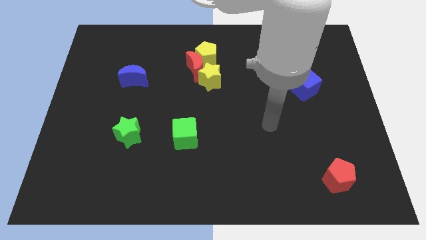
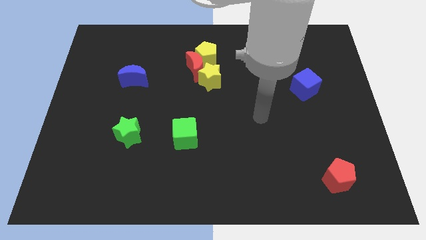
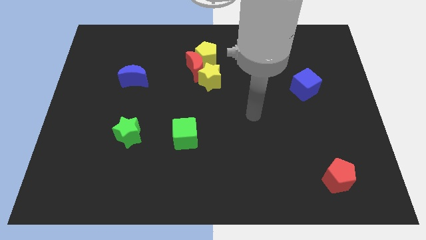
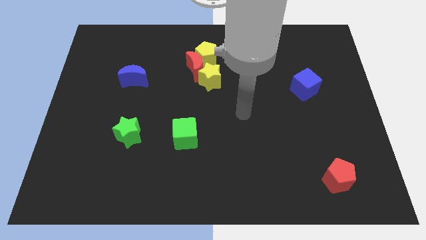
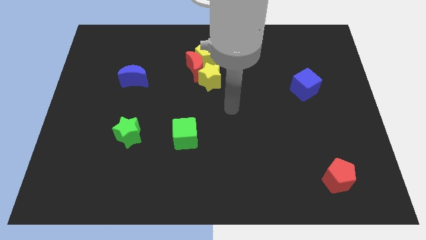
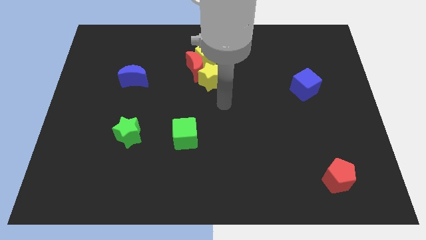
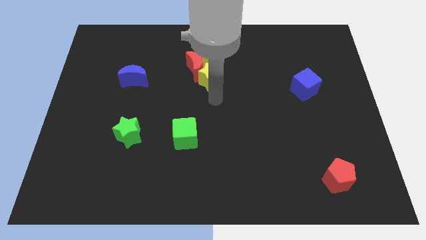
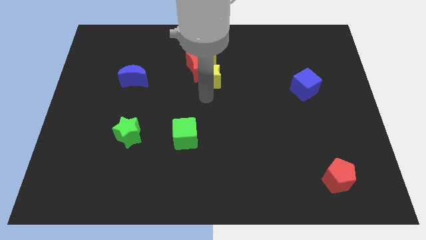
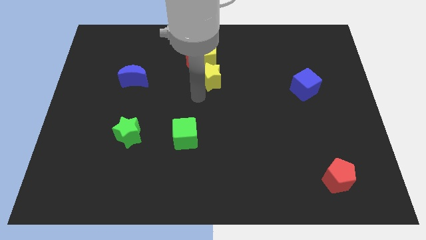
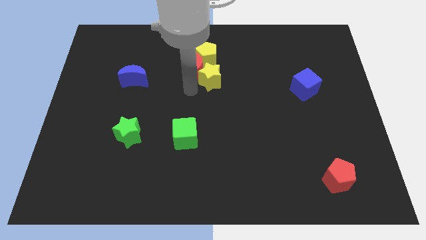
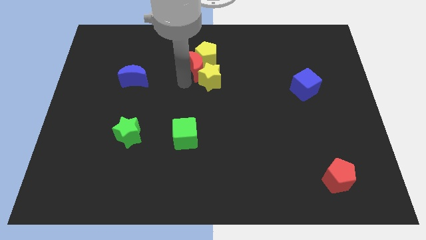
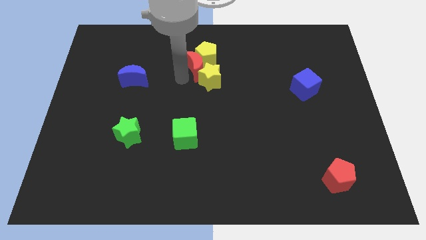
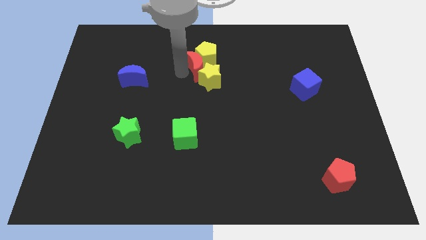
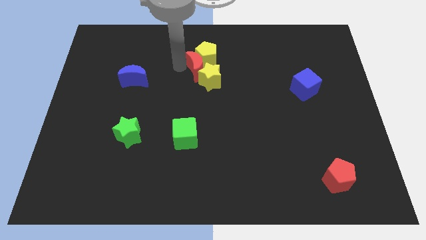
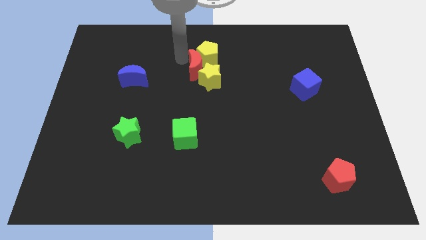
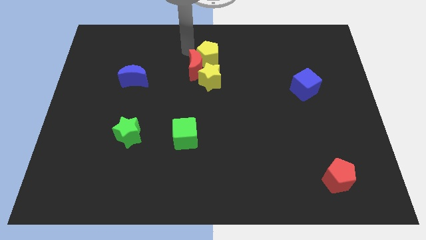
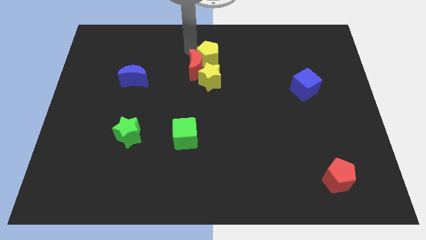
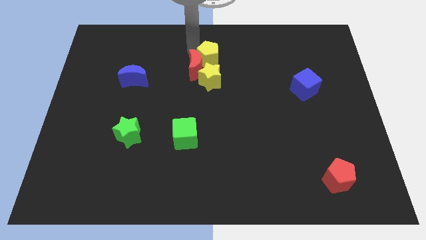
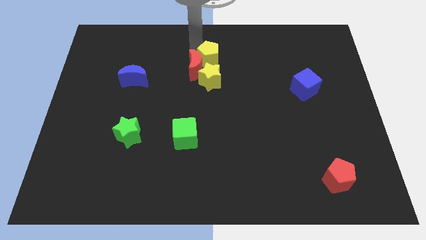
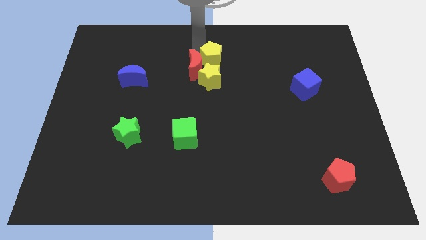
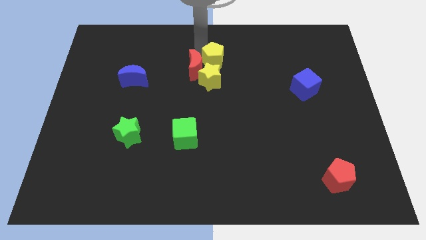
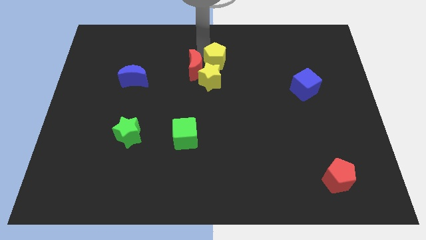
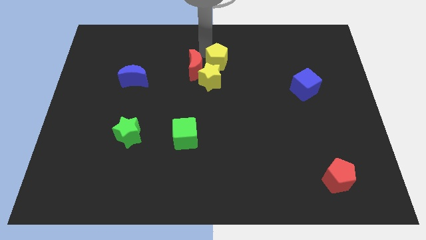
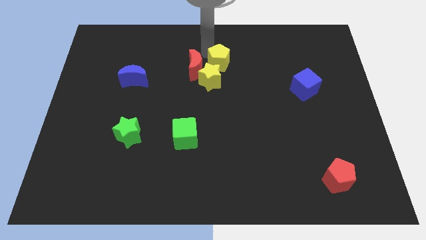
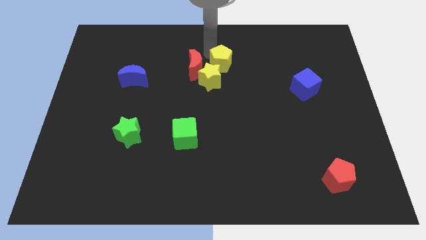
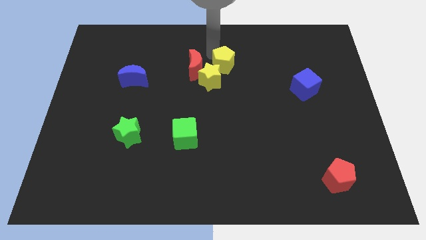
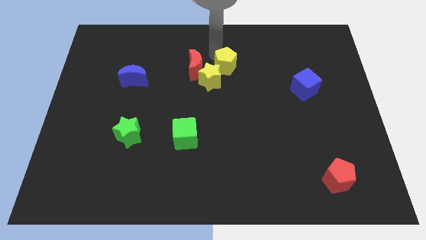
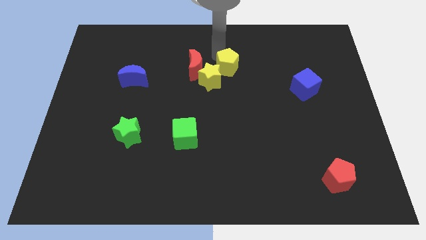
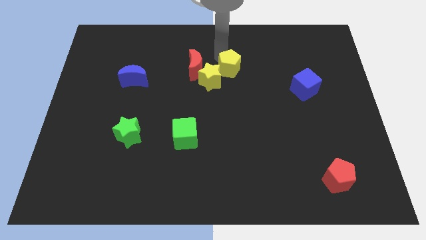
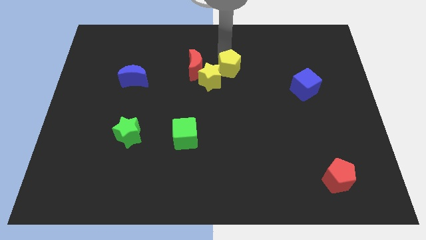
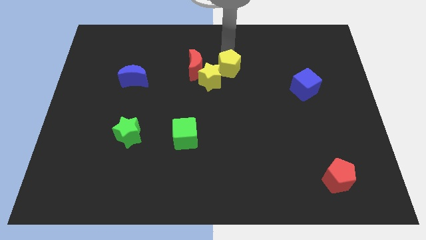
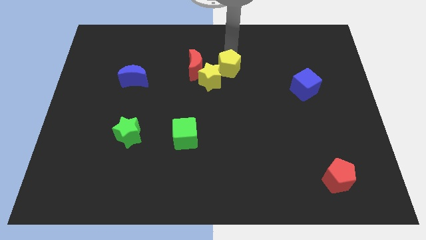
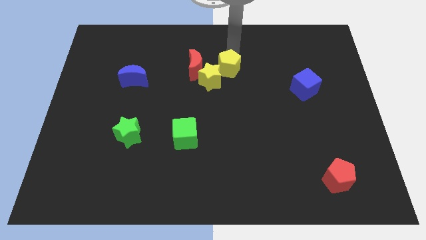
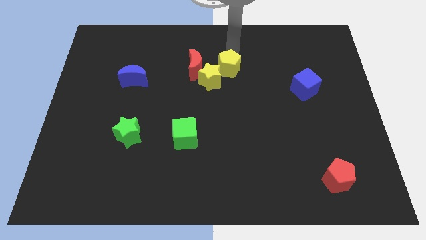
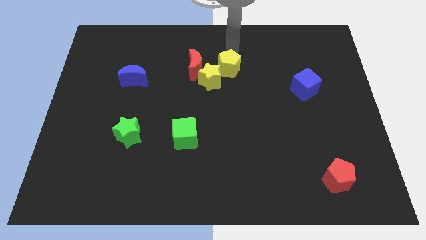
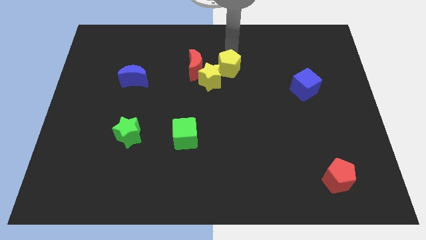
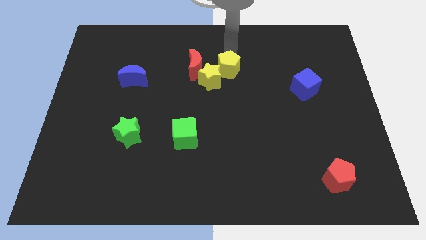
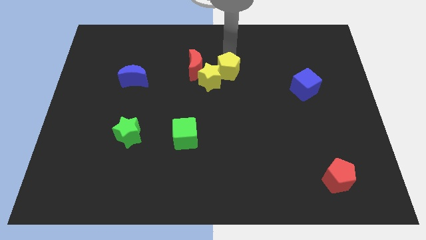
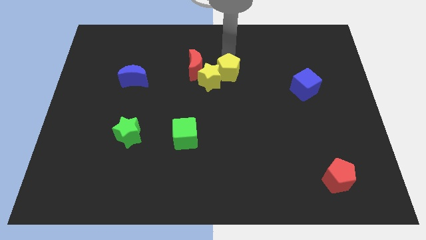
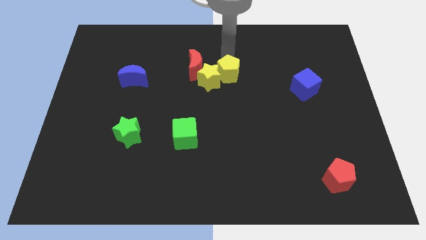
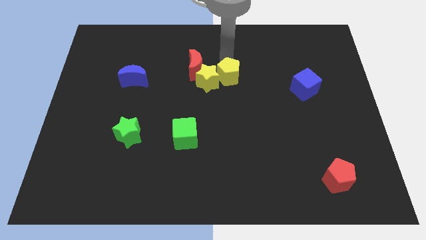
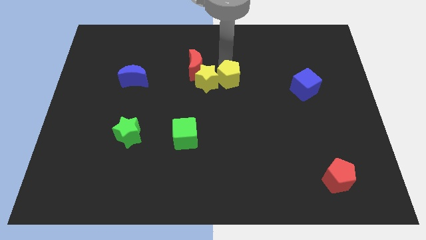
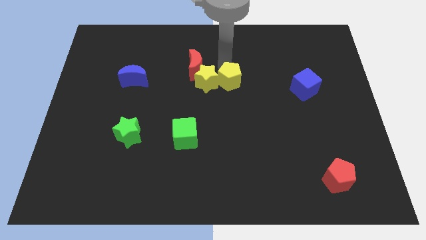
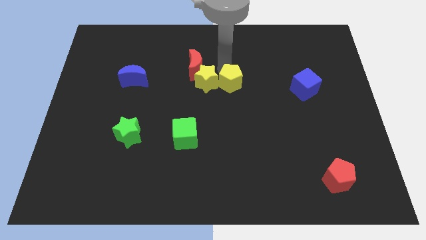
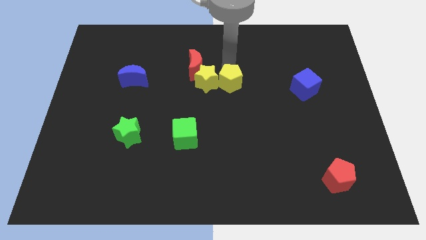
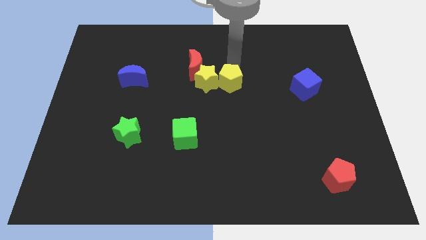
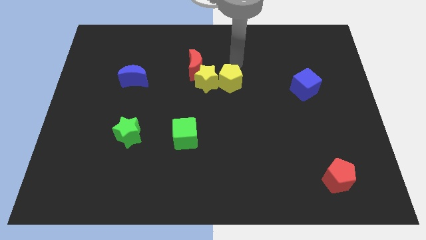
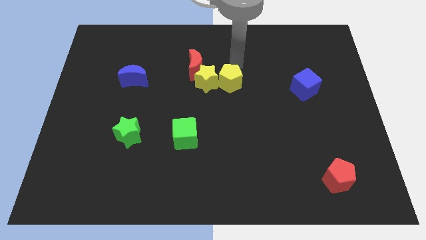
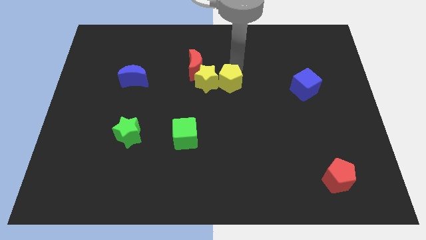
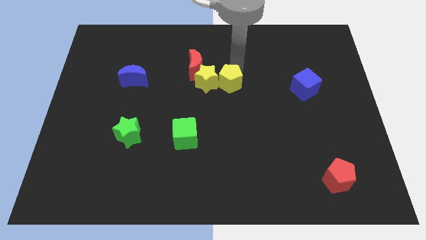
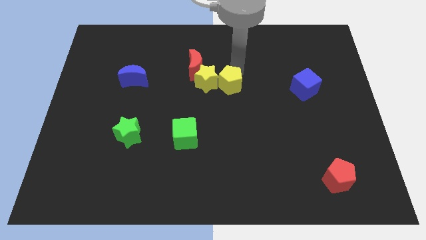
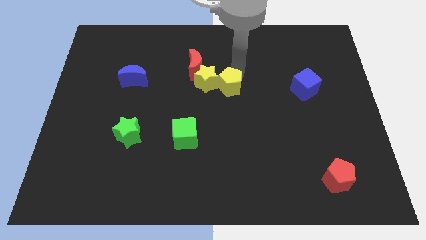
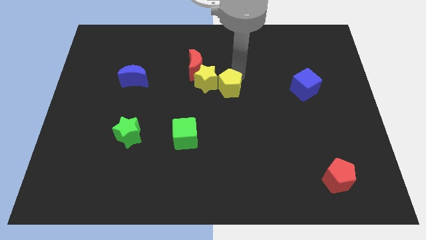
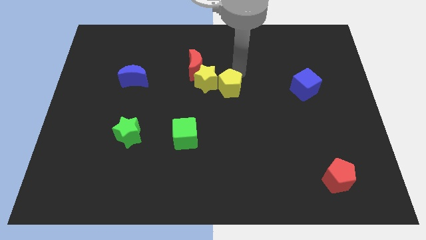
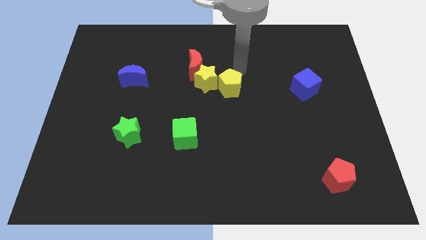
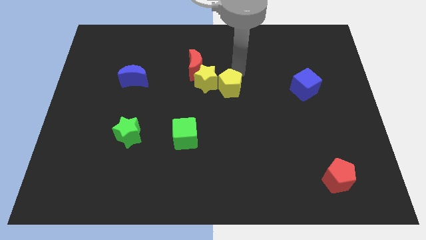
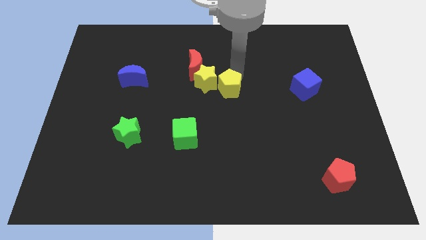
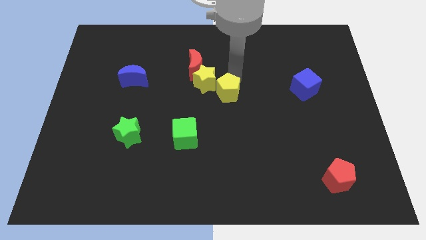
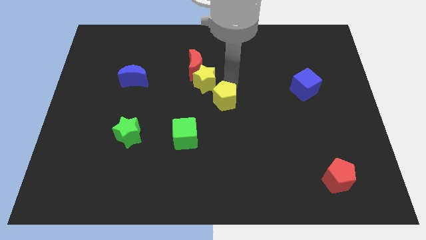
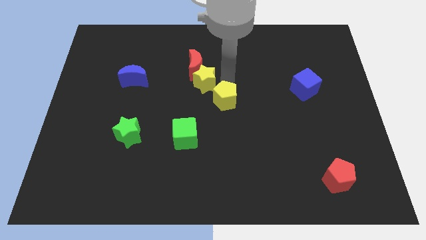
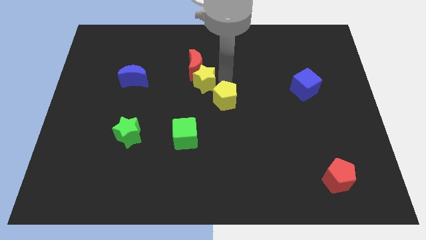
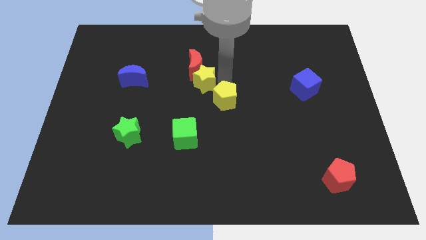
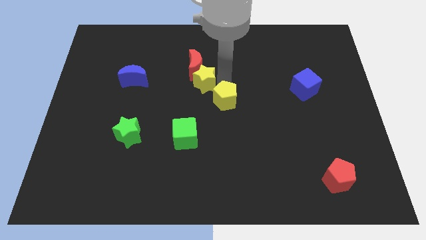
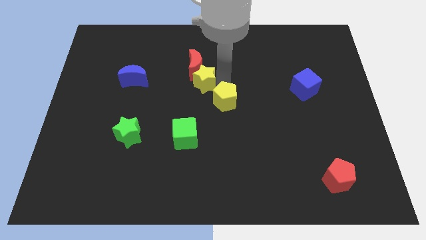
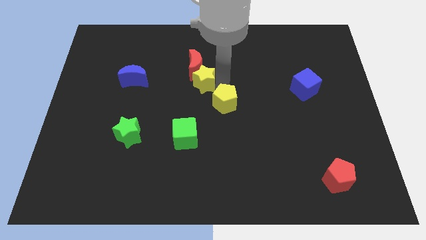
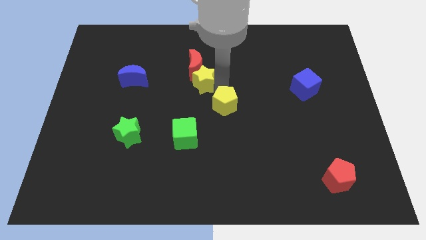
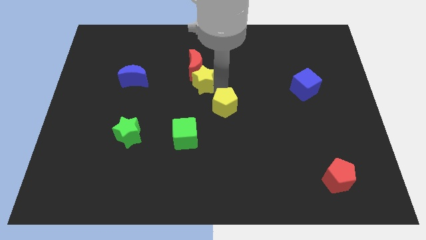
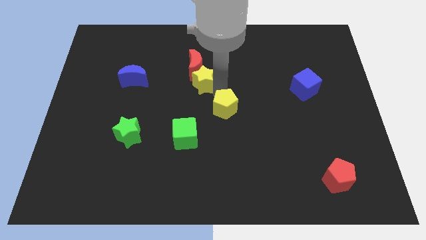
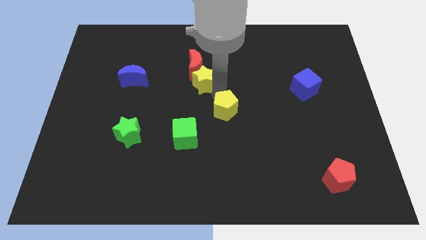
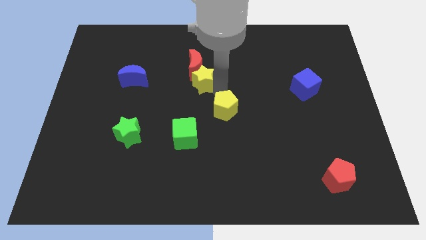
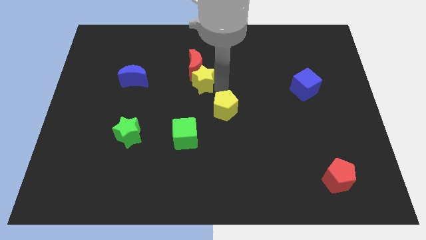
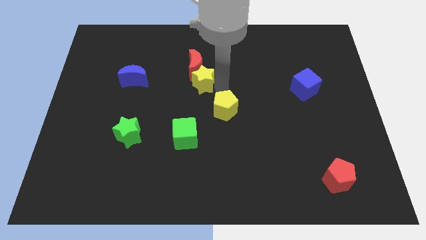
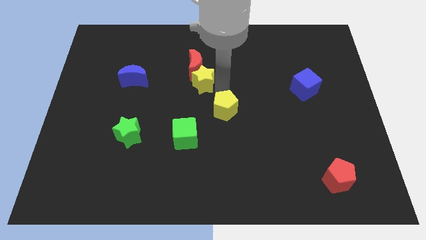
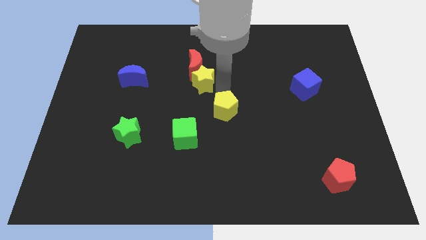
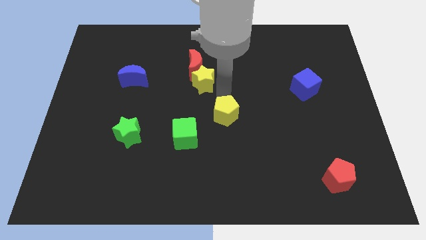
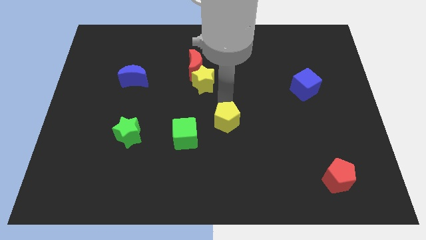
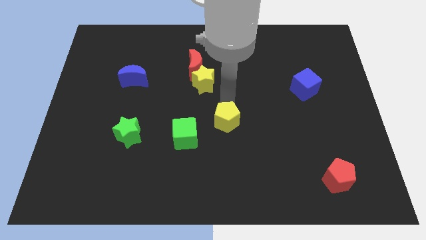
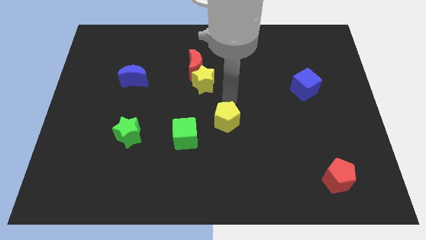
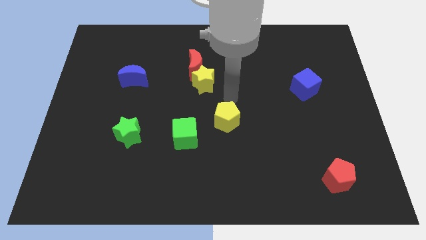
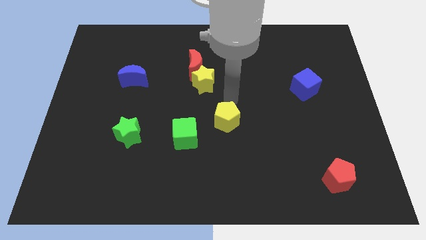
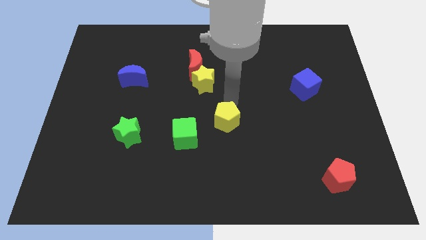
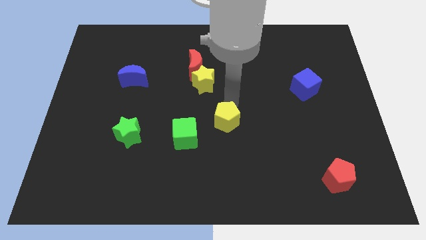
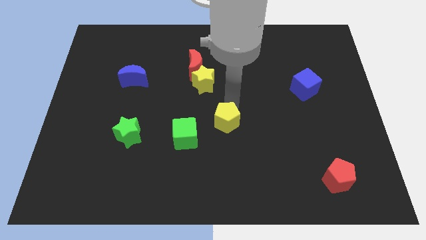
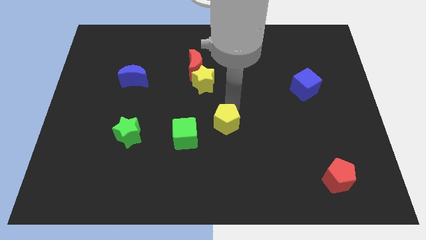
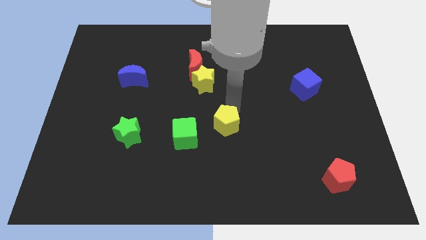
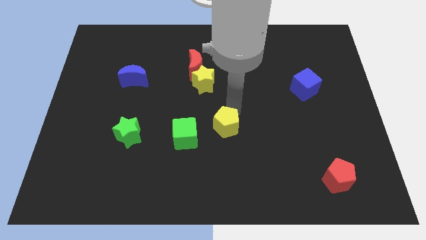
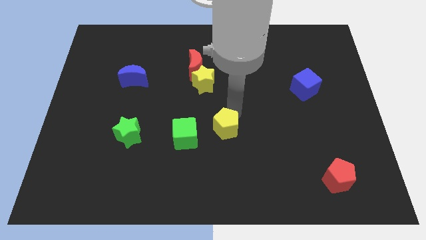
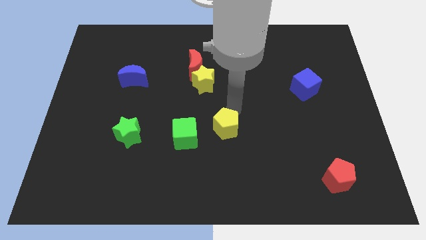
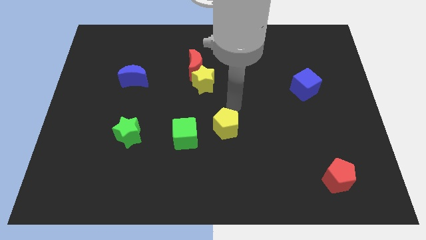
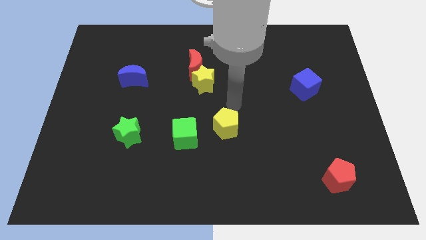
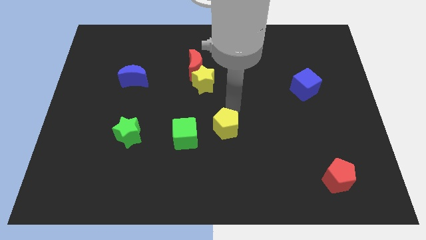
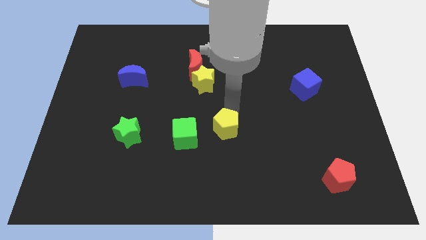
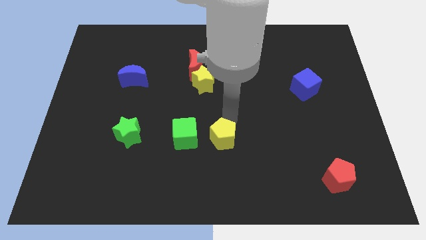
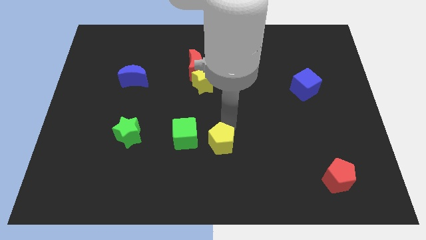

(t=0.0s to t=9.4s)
slide the yellow pentagon to the bottom right of the green cube
